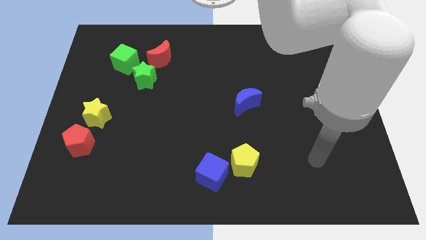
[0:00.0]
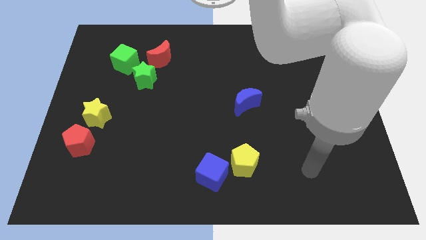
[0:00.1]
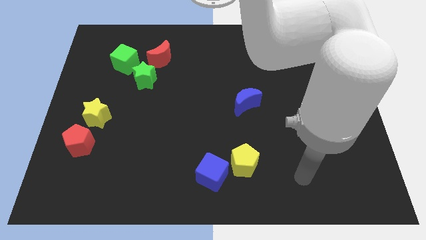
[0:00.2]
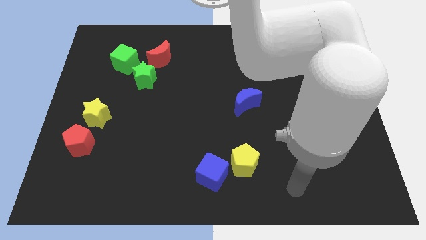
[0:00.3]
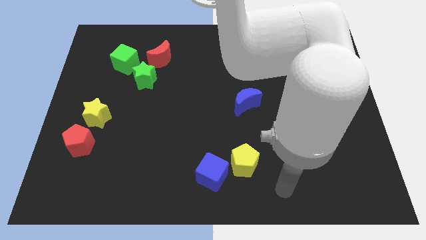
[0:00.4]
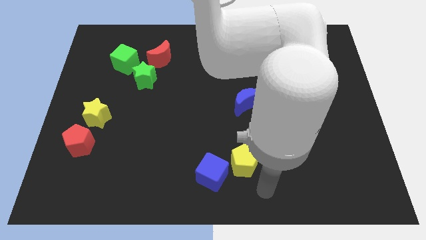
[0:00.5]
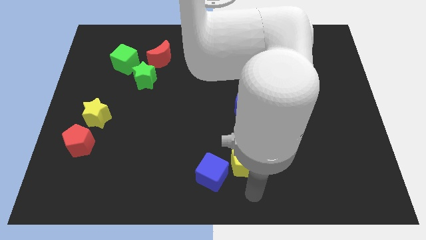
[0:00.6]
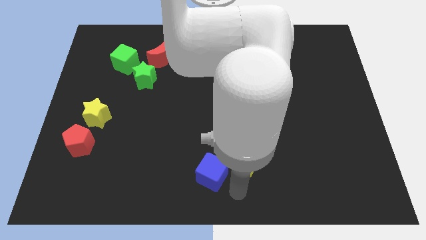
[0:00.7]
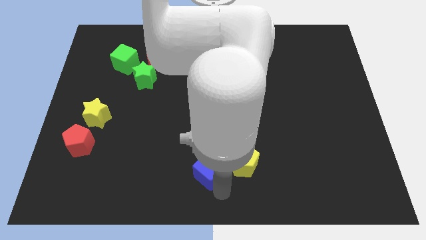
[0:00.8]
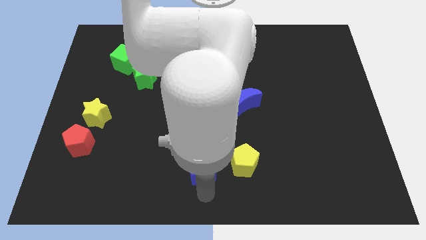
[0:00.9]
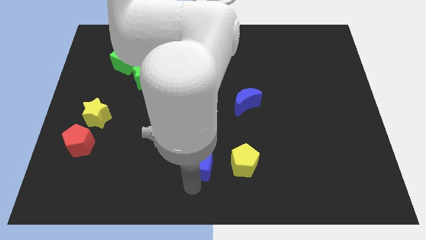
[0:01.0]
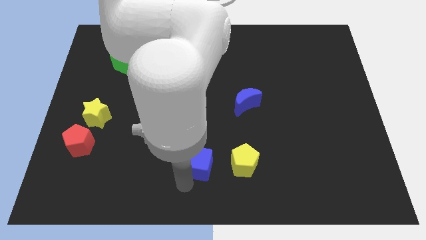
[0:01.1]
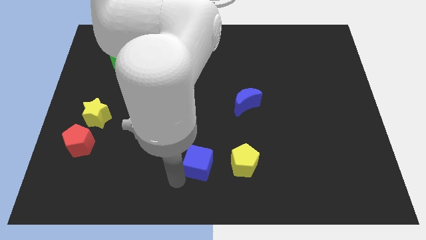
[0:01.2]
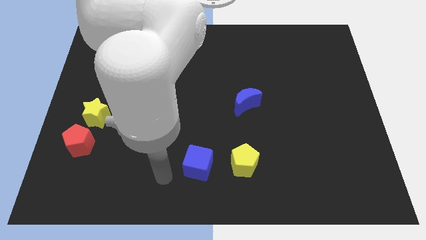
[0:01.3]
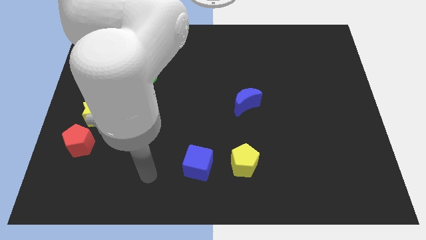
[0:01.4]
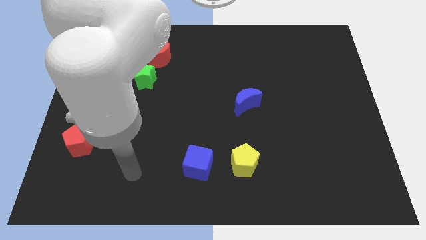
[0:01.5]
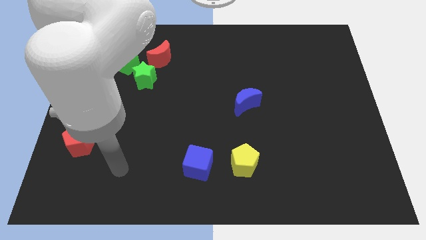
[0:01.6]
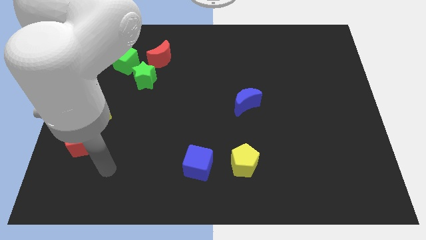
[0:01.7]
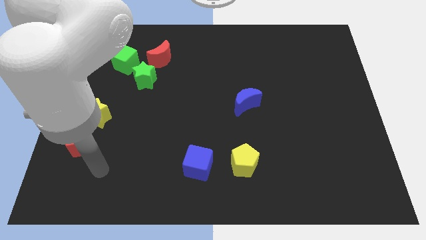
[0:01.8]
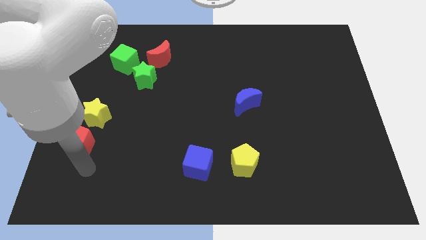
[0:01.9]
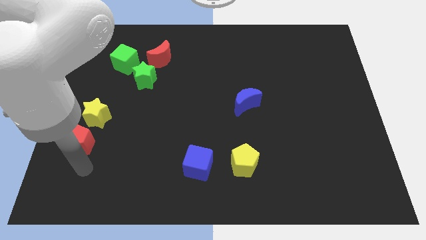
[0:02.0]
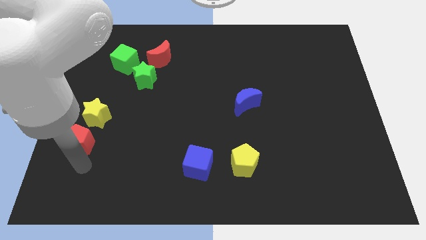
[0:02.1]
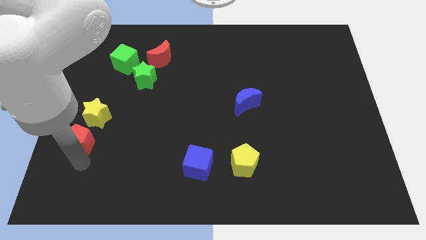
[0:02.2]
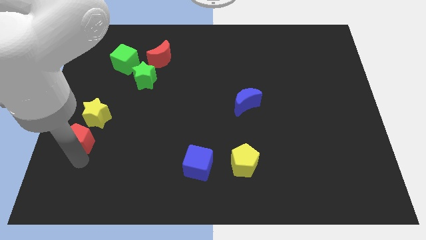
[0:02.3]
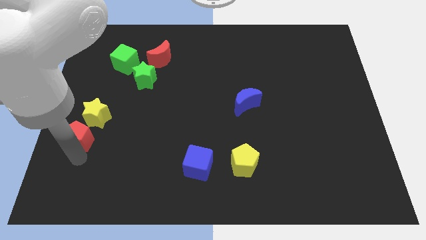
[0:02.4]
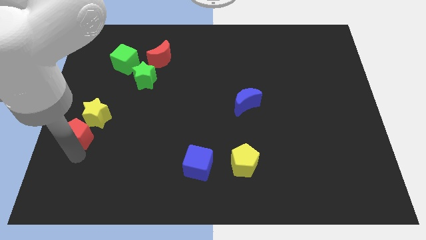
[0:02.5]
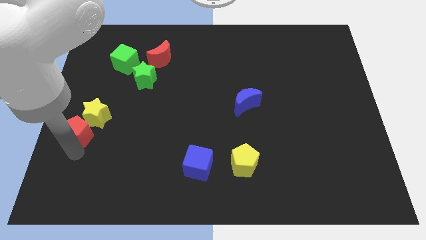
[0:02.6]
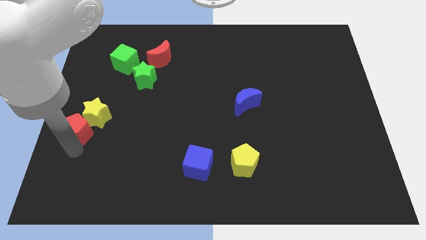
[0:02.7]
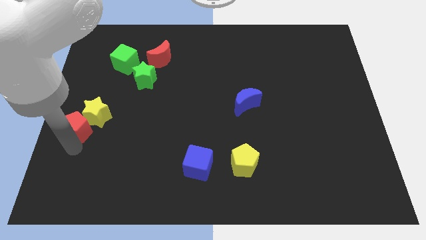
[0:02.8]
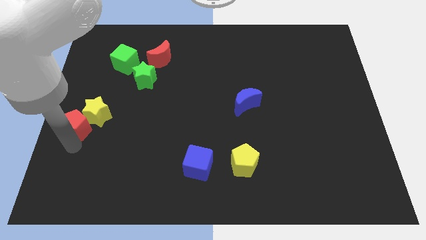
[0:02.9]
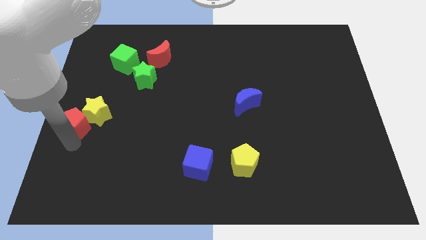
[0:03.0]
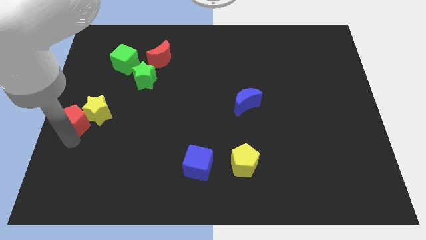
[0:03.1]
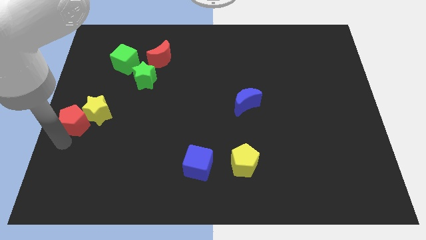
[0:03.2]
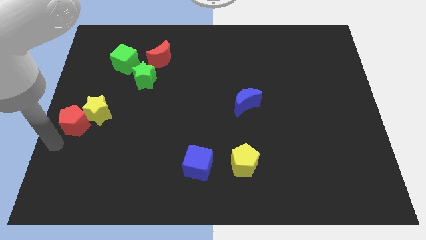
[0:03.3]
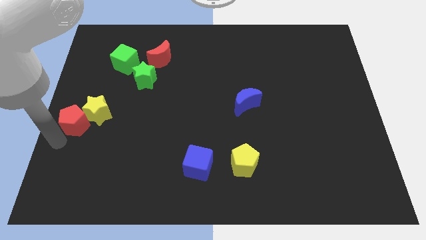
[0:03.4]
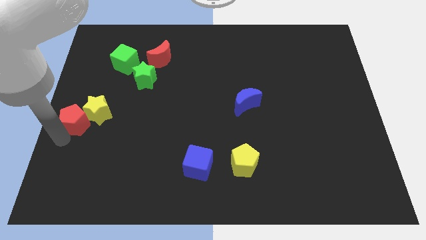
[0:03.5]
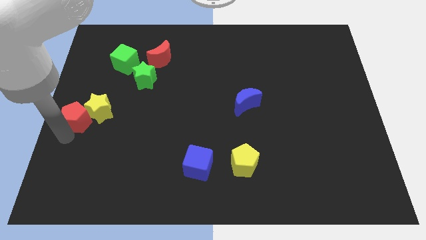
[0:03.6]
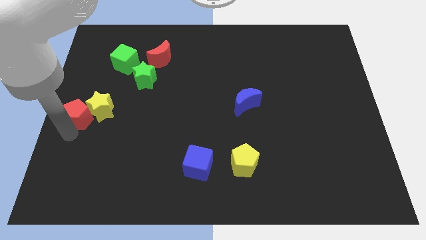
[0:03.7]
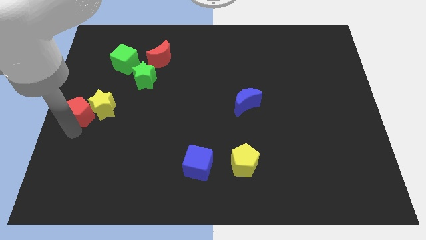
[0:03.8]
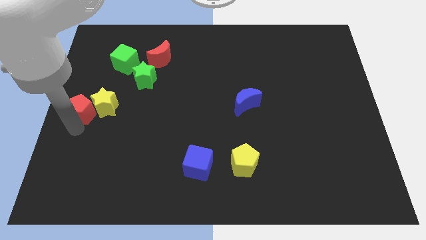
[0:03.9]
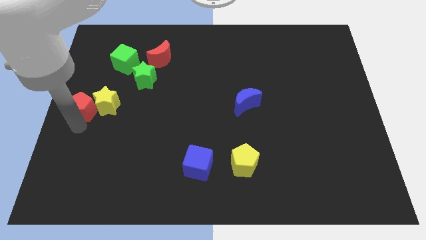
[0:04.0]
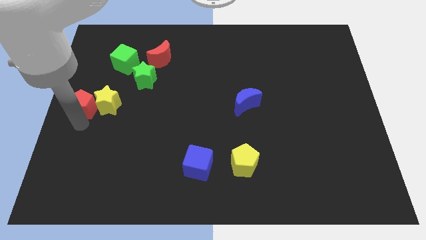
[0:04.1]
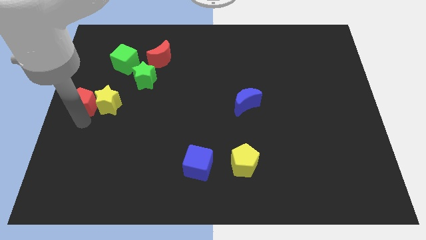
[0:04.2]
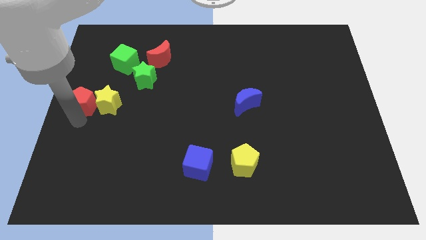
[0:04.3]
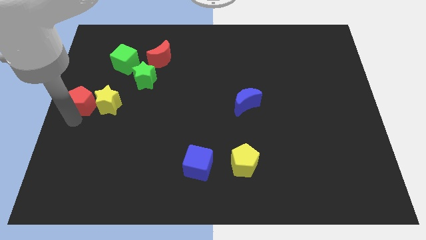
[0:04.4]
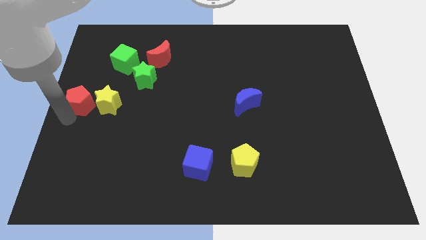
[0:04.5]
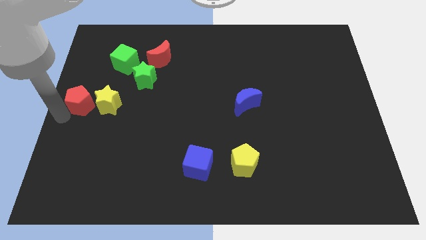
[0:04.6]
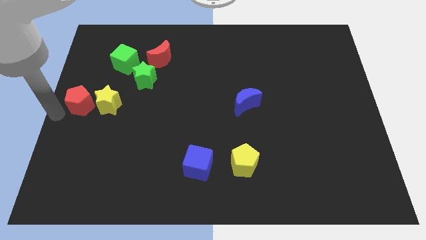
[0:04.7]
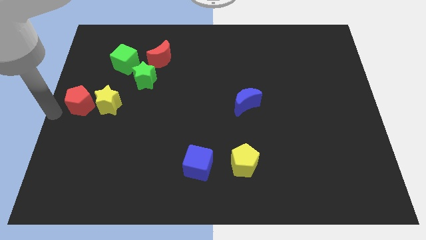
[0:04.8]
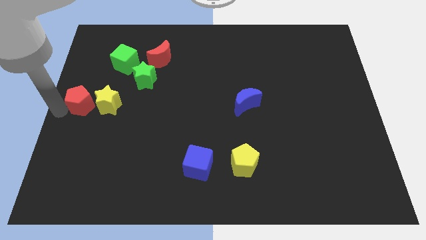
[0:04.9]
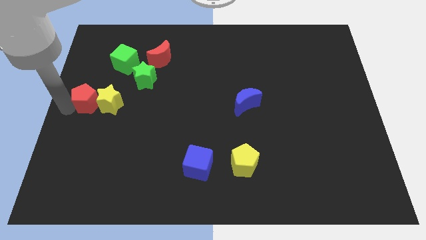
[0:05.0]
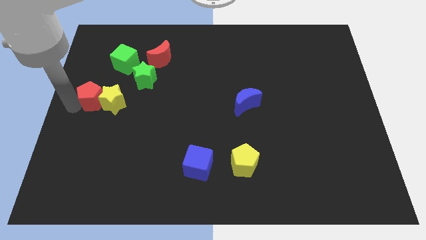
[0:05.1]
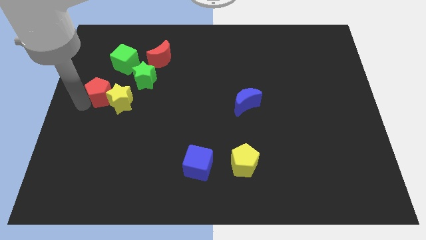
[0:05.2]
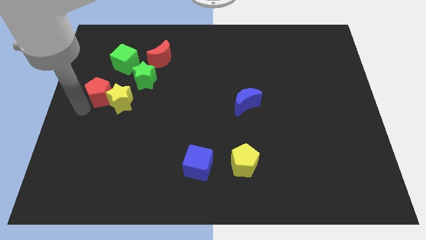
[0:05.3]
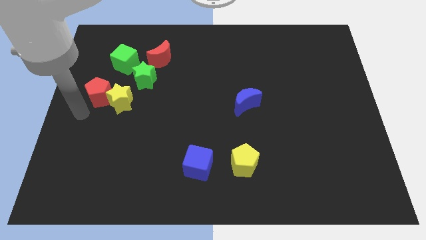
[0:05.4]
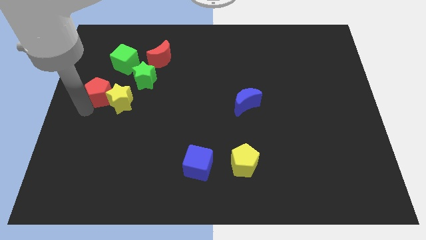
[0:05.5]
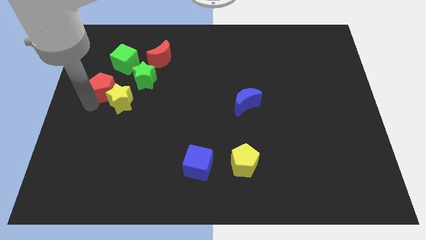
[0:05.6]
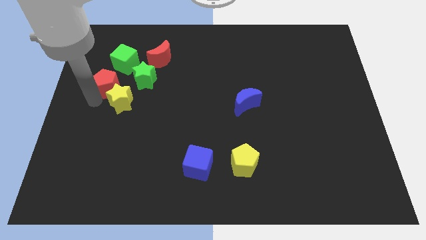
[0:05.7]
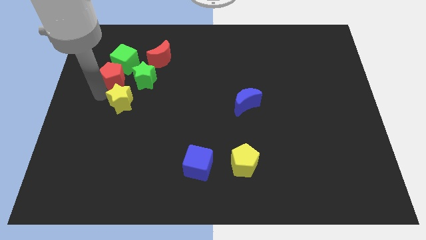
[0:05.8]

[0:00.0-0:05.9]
push the red pentagon close to the green cube

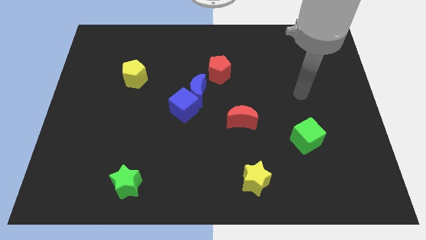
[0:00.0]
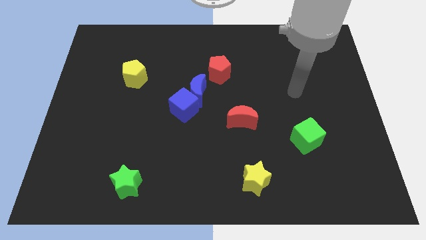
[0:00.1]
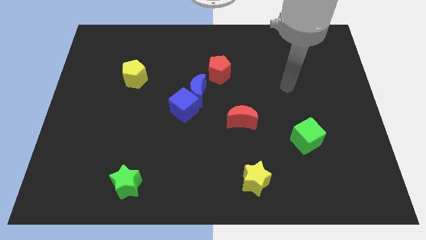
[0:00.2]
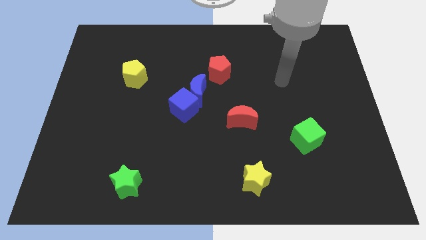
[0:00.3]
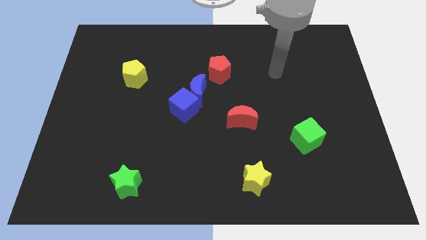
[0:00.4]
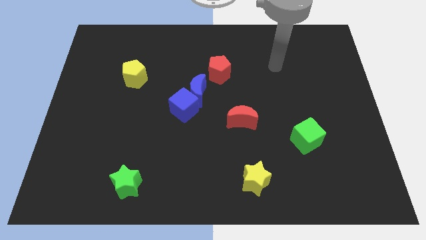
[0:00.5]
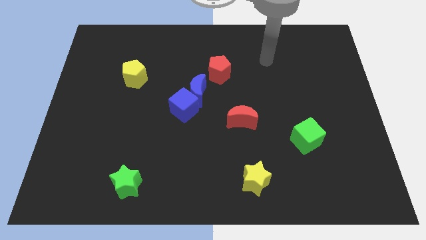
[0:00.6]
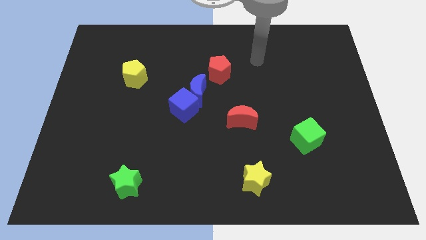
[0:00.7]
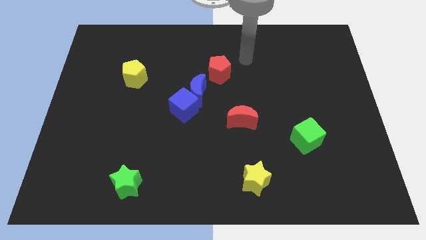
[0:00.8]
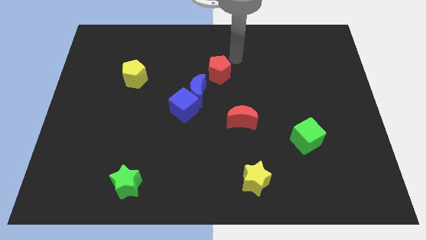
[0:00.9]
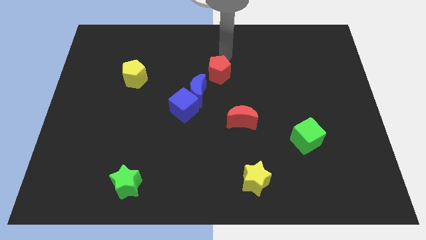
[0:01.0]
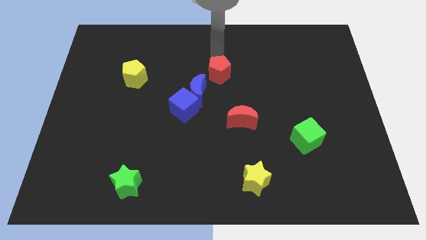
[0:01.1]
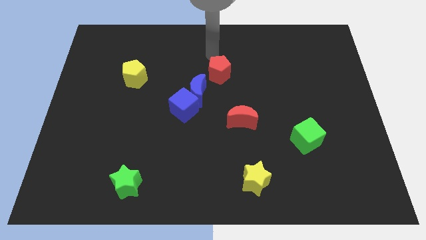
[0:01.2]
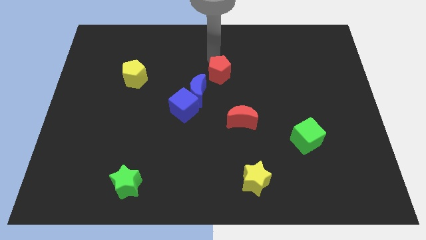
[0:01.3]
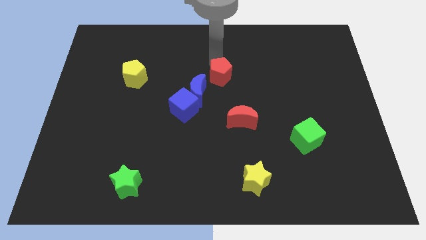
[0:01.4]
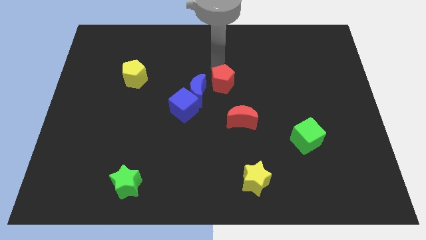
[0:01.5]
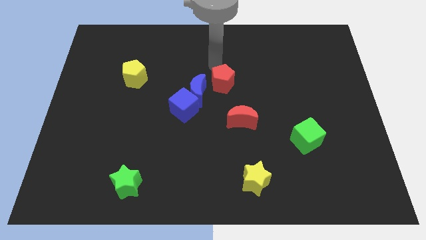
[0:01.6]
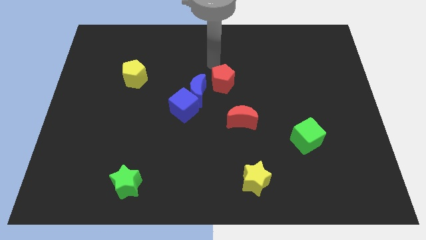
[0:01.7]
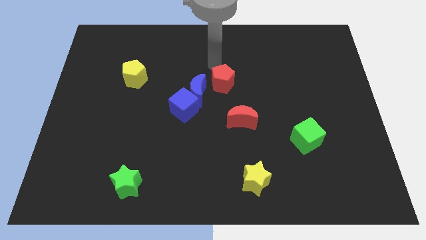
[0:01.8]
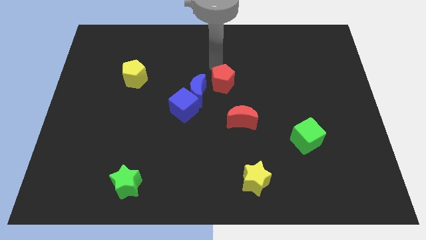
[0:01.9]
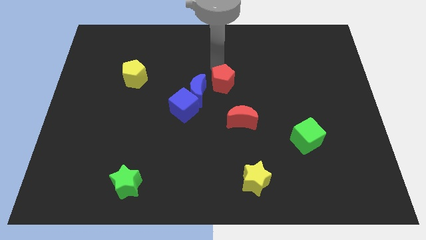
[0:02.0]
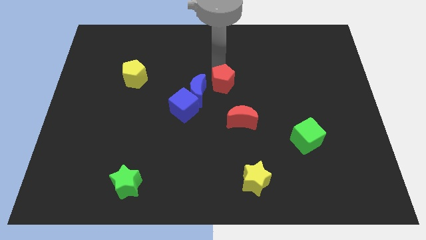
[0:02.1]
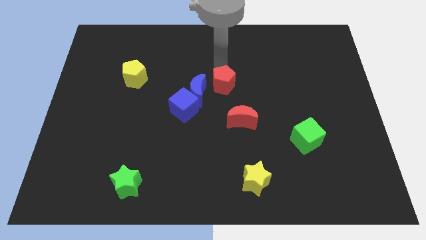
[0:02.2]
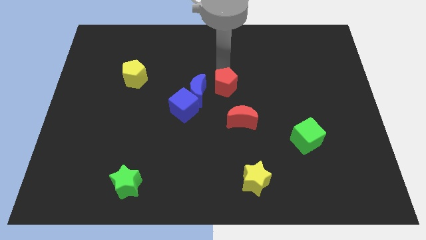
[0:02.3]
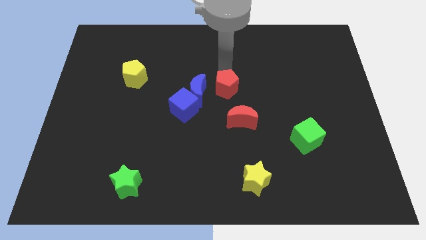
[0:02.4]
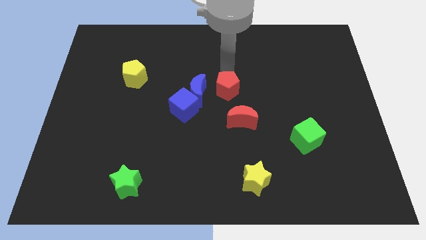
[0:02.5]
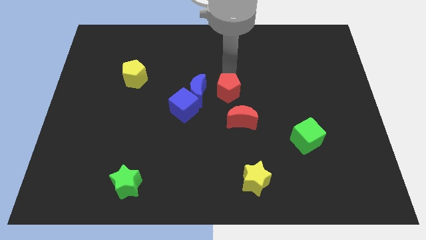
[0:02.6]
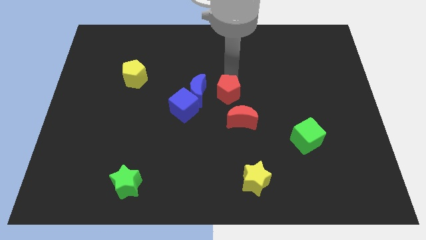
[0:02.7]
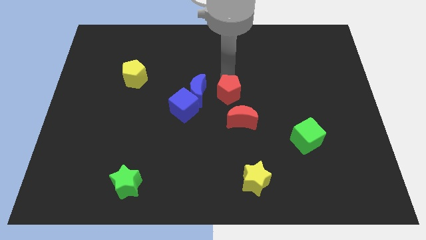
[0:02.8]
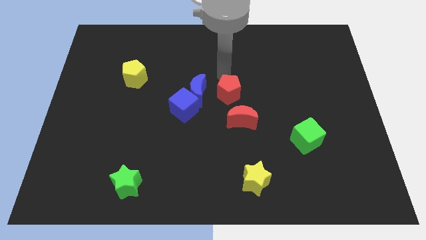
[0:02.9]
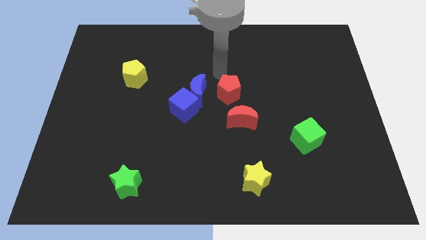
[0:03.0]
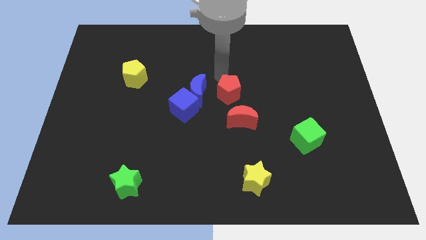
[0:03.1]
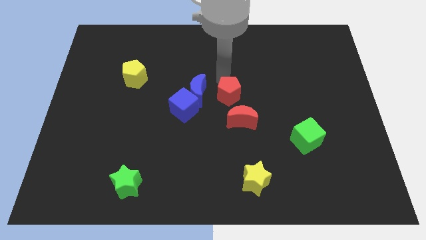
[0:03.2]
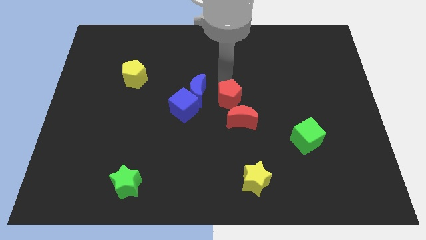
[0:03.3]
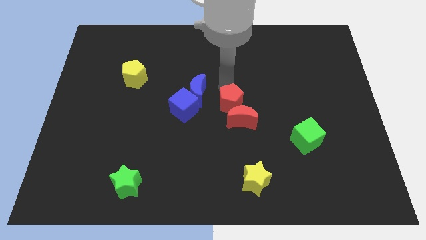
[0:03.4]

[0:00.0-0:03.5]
put the red pentagon next to the red moon
